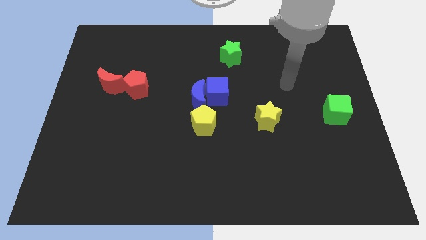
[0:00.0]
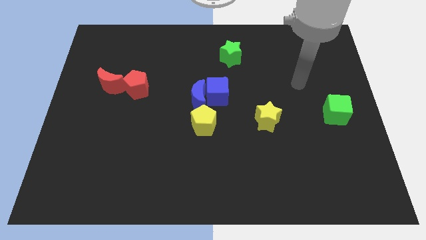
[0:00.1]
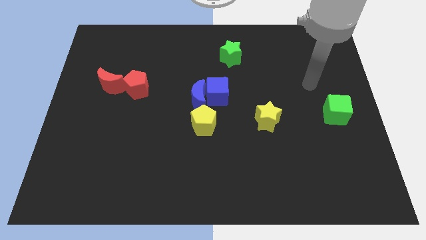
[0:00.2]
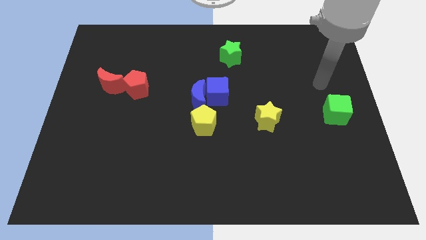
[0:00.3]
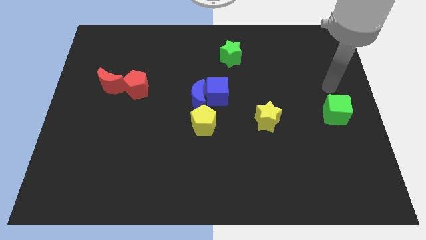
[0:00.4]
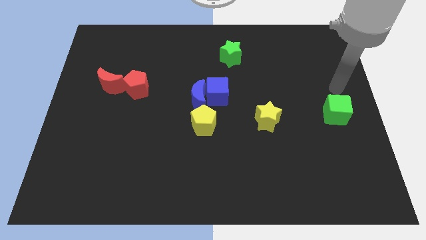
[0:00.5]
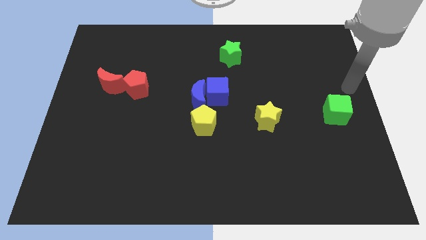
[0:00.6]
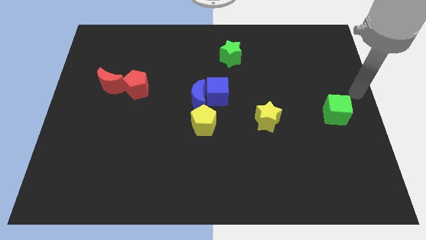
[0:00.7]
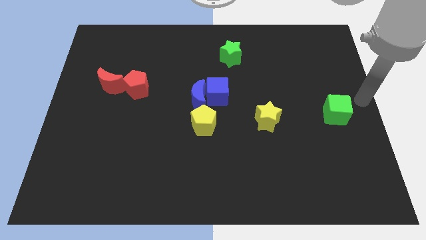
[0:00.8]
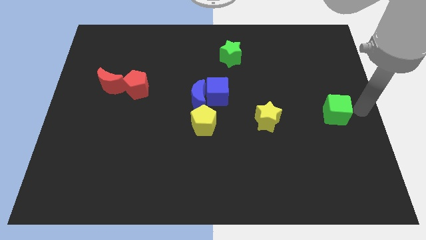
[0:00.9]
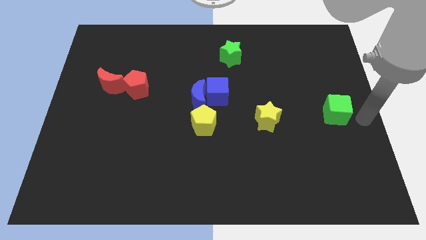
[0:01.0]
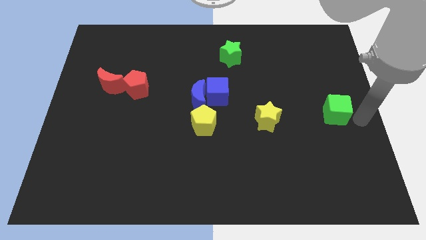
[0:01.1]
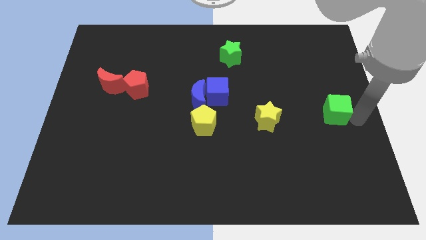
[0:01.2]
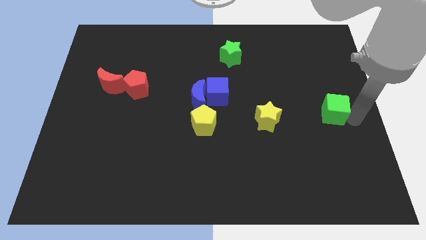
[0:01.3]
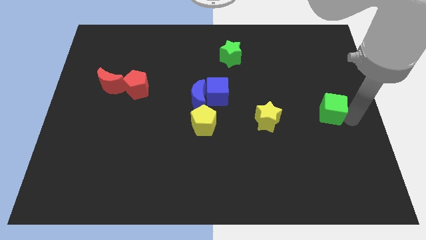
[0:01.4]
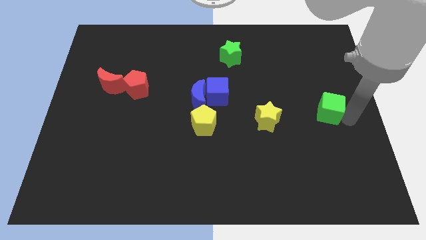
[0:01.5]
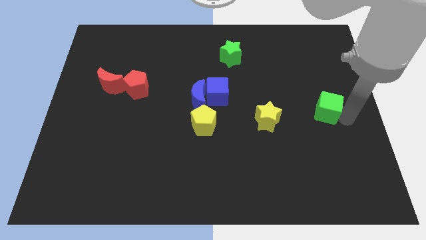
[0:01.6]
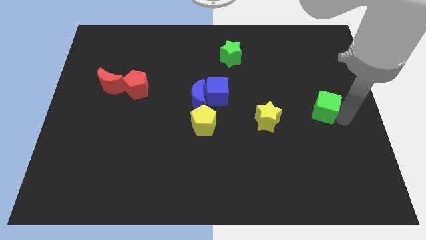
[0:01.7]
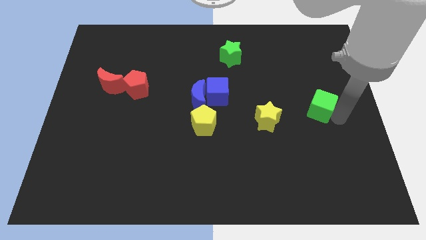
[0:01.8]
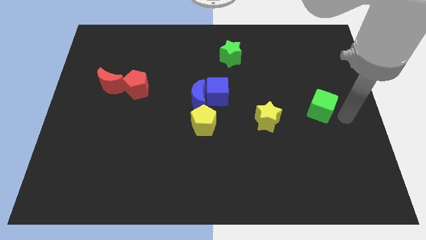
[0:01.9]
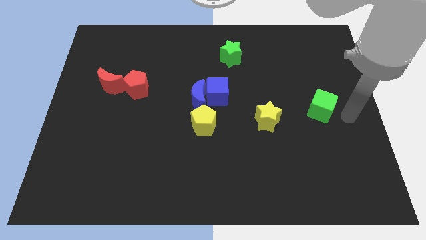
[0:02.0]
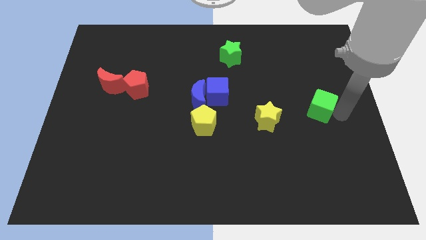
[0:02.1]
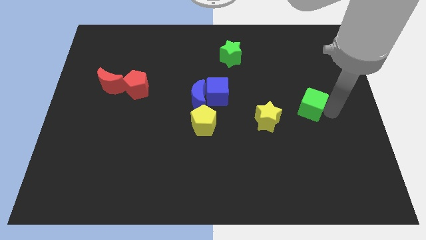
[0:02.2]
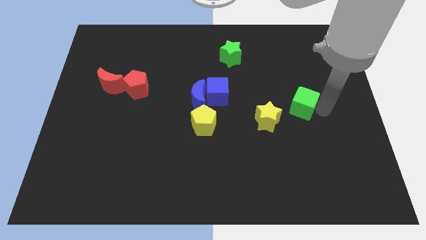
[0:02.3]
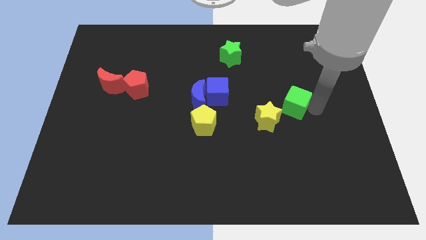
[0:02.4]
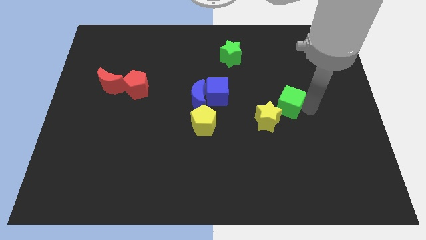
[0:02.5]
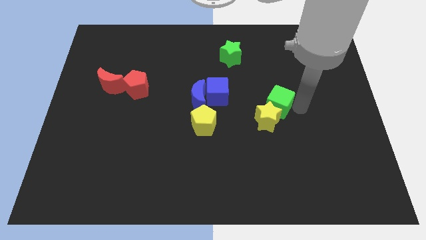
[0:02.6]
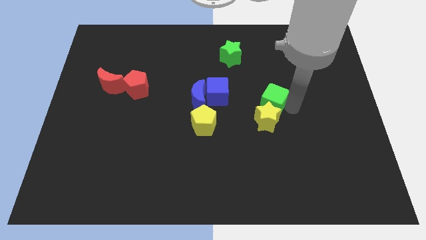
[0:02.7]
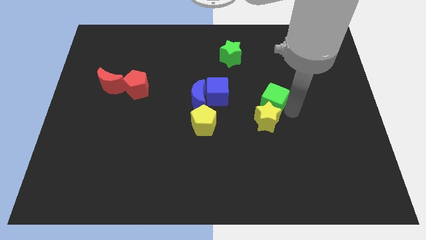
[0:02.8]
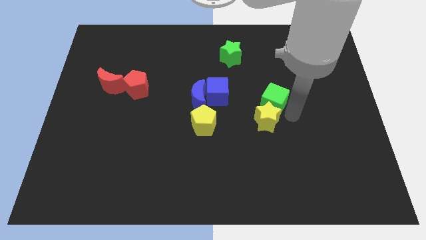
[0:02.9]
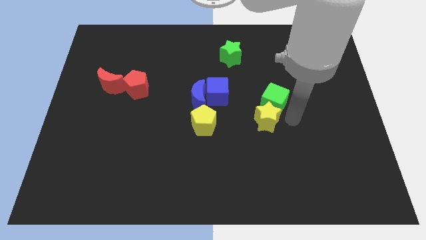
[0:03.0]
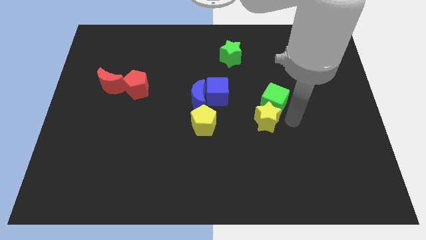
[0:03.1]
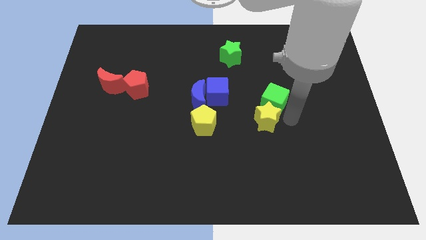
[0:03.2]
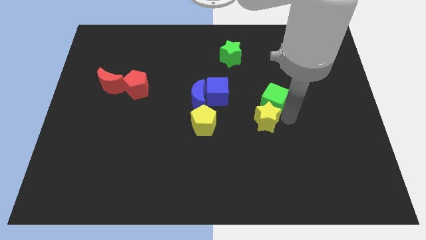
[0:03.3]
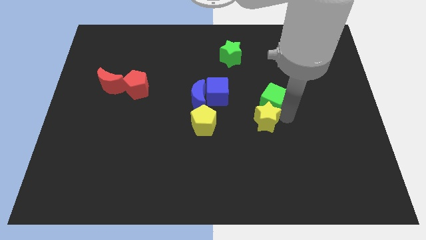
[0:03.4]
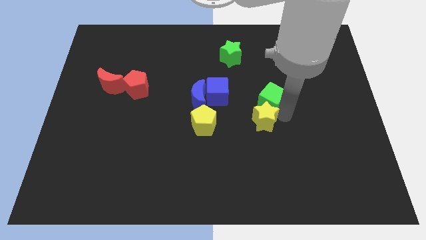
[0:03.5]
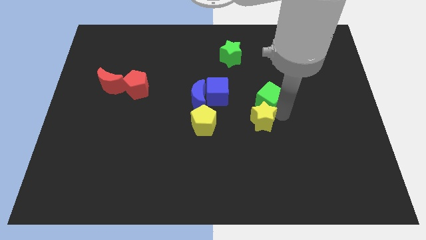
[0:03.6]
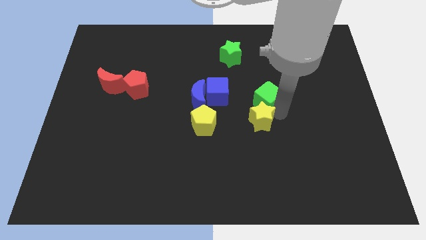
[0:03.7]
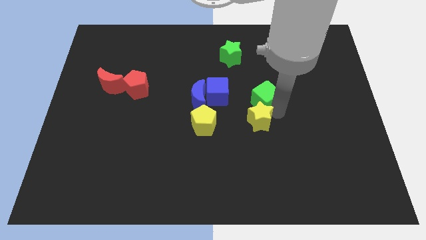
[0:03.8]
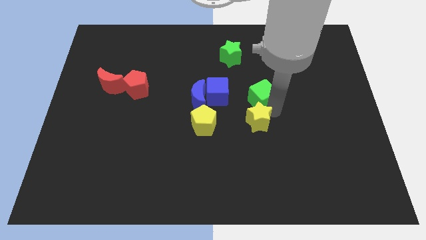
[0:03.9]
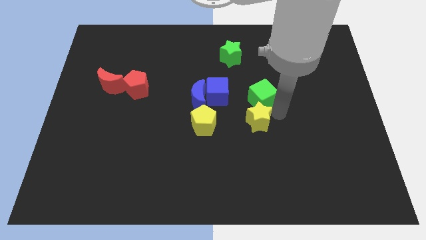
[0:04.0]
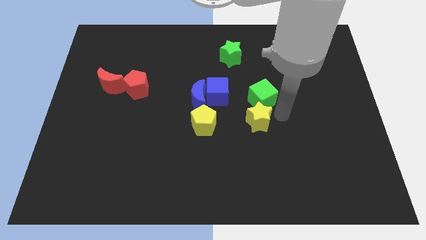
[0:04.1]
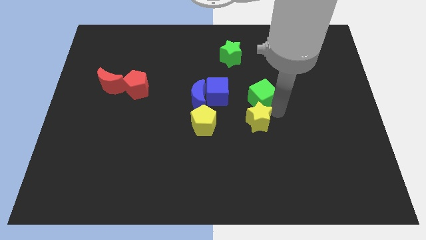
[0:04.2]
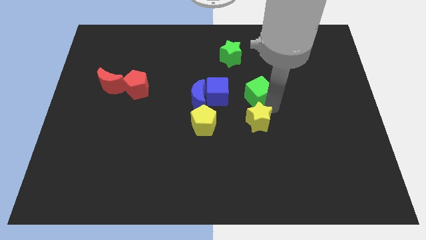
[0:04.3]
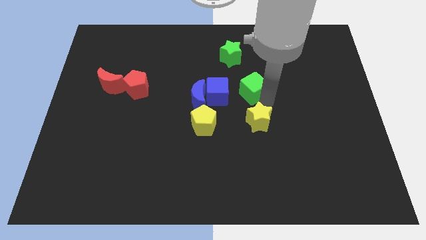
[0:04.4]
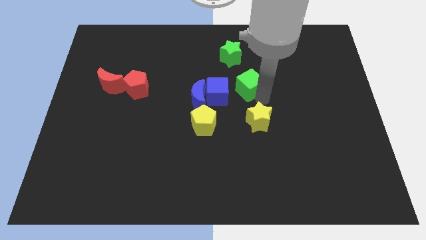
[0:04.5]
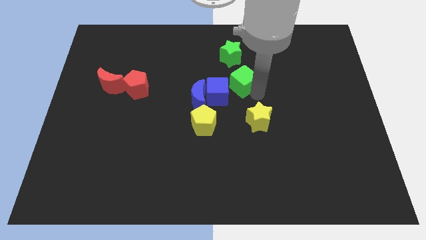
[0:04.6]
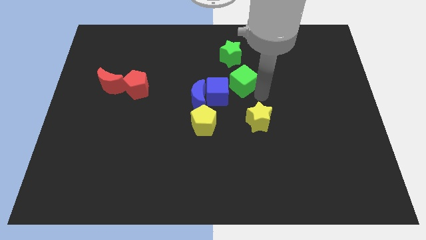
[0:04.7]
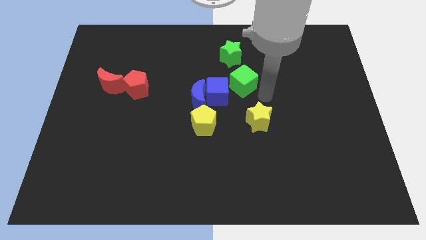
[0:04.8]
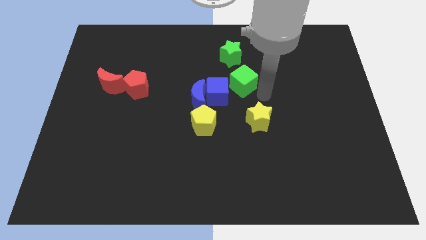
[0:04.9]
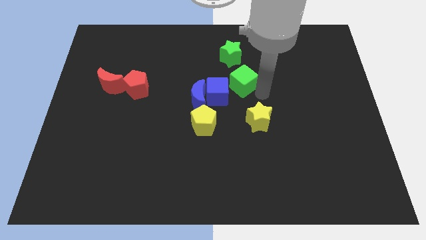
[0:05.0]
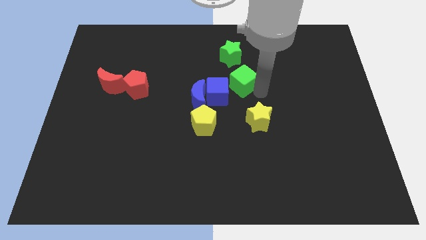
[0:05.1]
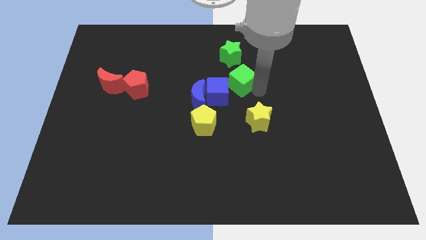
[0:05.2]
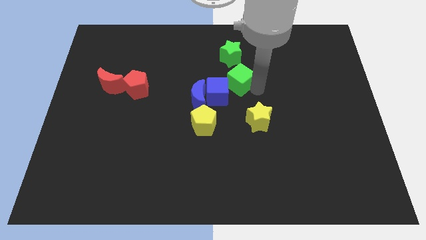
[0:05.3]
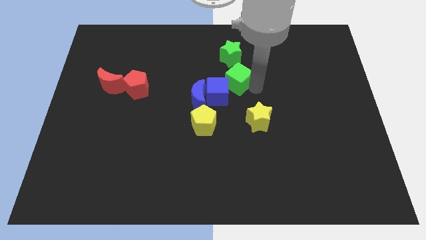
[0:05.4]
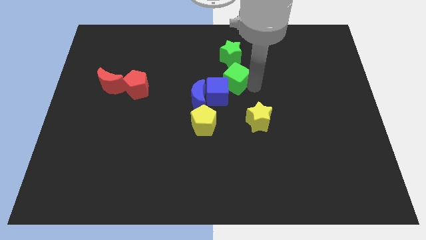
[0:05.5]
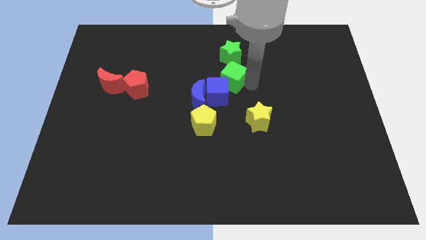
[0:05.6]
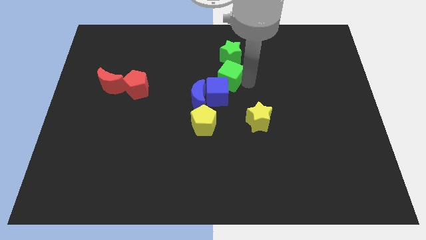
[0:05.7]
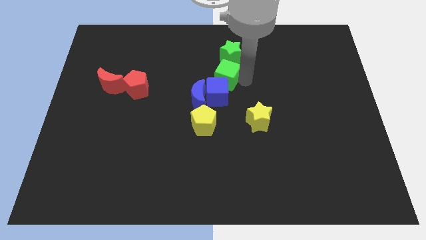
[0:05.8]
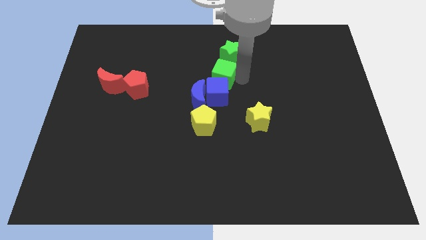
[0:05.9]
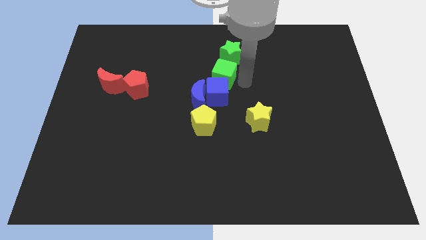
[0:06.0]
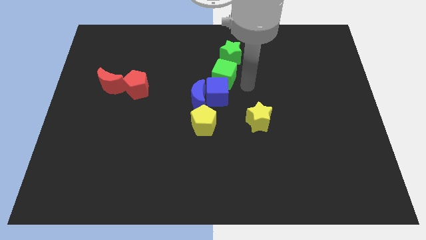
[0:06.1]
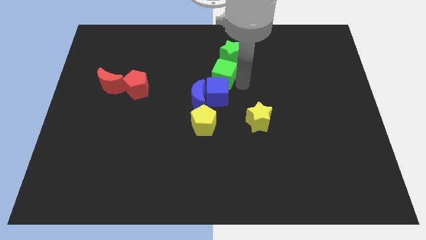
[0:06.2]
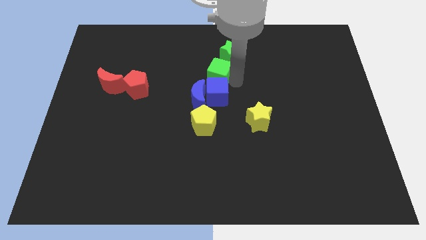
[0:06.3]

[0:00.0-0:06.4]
slide the green cube to the top of the blue moon

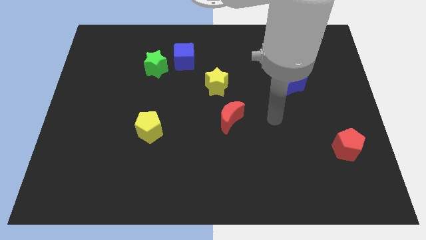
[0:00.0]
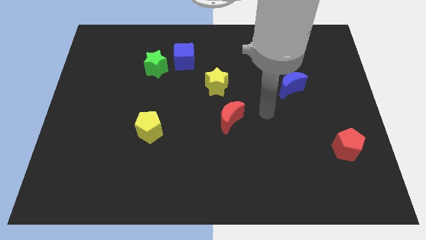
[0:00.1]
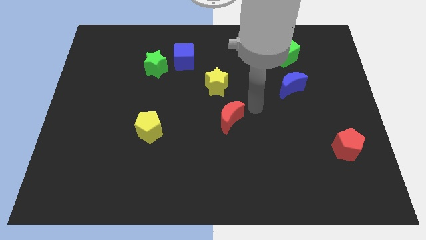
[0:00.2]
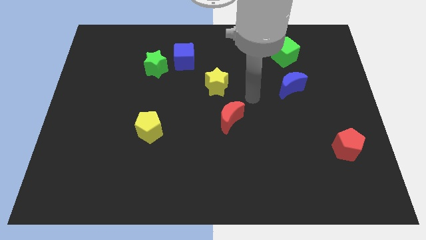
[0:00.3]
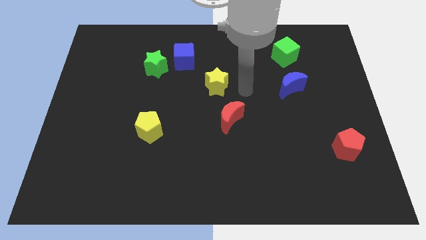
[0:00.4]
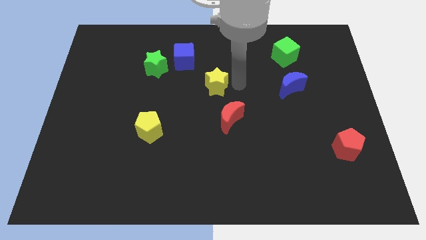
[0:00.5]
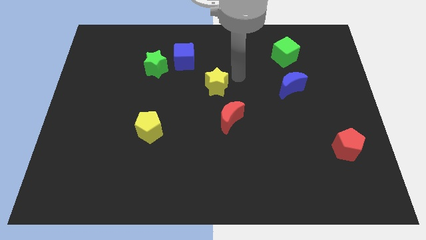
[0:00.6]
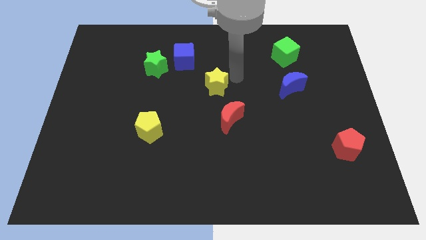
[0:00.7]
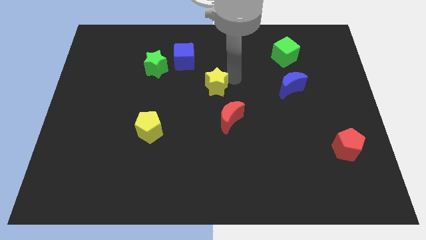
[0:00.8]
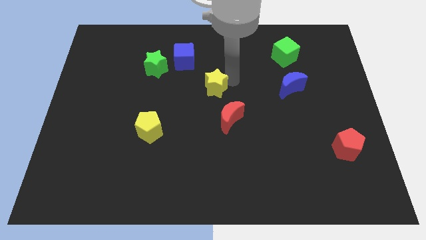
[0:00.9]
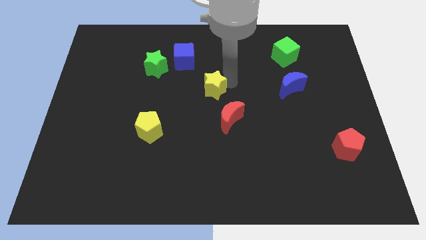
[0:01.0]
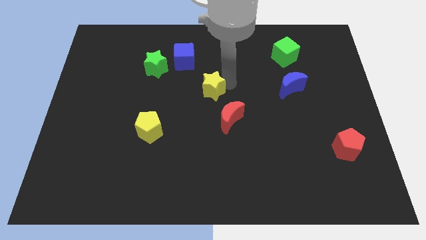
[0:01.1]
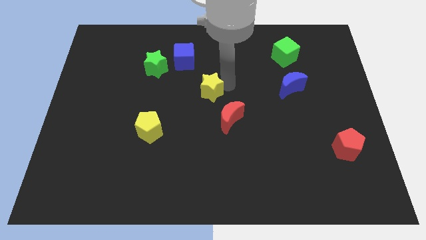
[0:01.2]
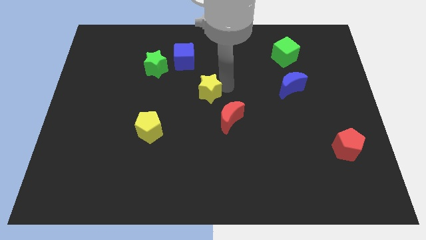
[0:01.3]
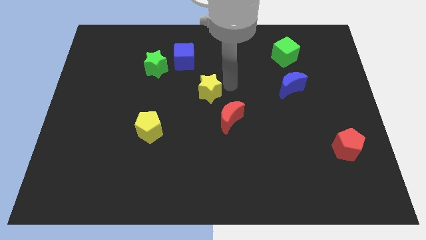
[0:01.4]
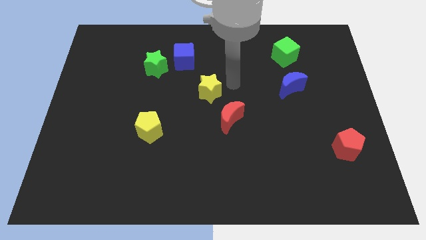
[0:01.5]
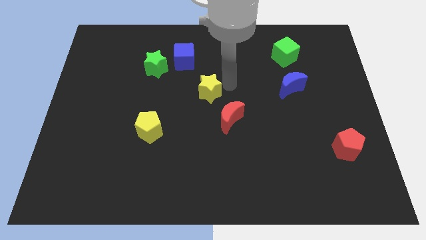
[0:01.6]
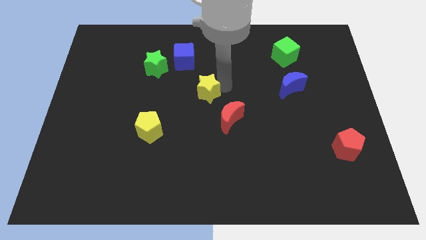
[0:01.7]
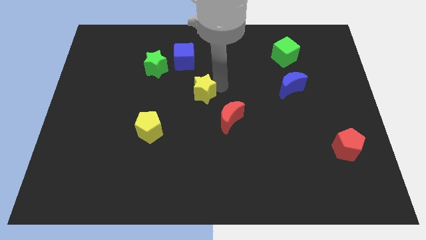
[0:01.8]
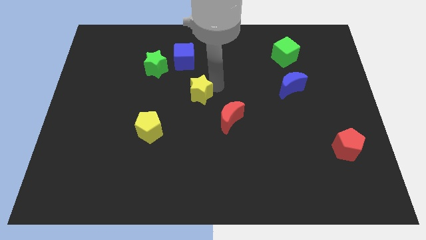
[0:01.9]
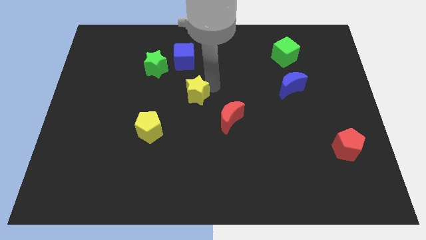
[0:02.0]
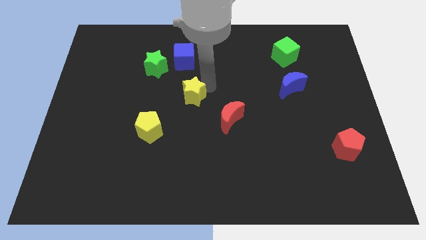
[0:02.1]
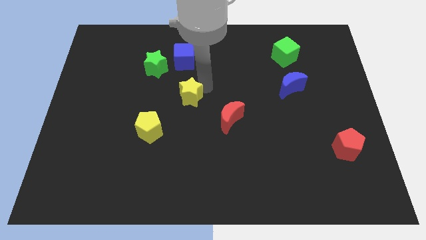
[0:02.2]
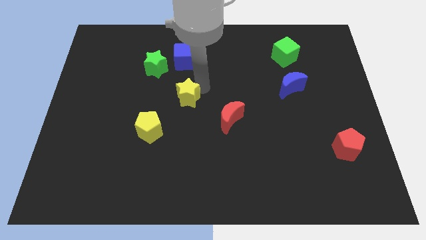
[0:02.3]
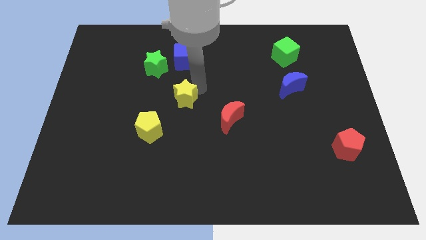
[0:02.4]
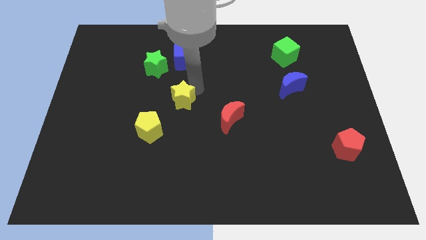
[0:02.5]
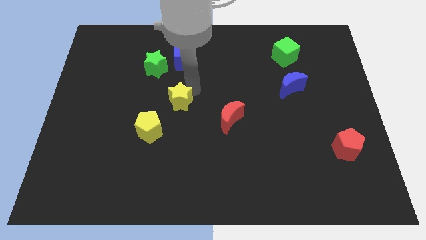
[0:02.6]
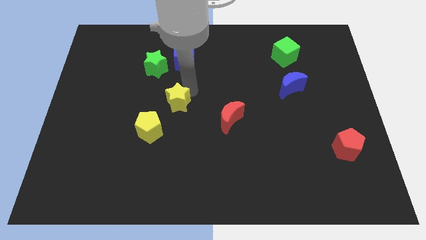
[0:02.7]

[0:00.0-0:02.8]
slide the yellow star to the left side of the red moon
